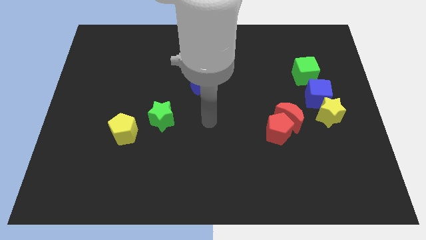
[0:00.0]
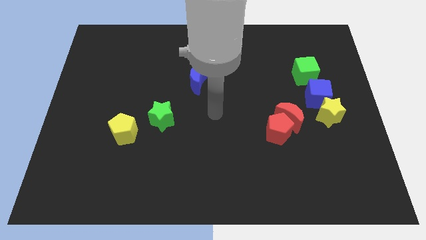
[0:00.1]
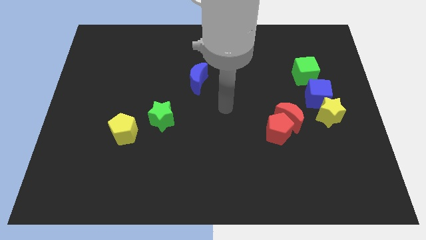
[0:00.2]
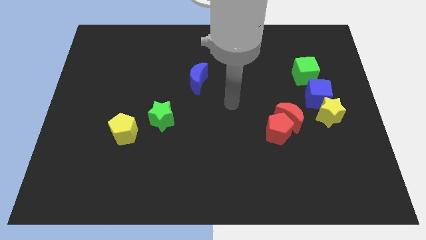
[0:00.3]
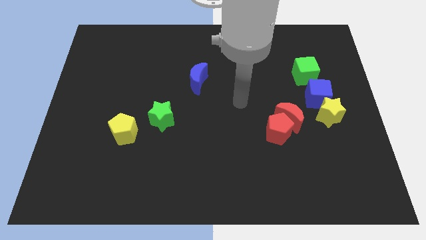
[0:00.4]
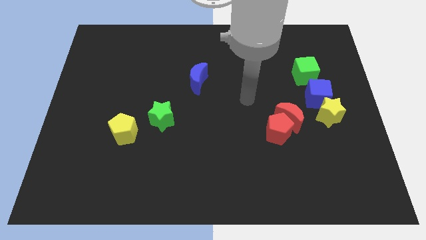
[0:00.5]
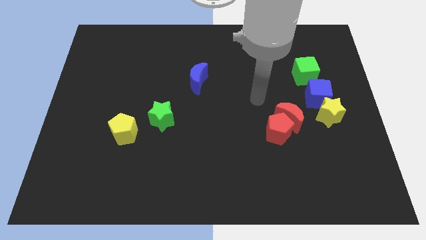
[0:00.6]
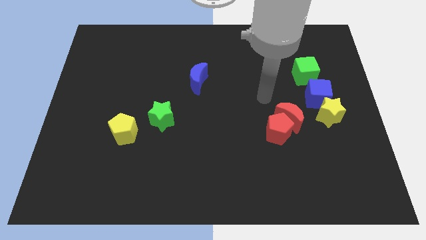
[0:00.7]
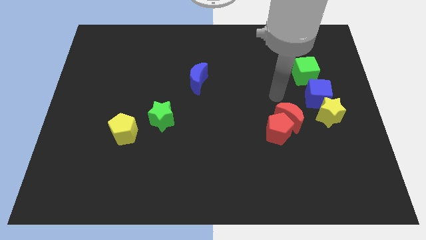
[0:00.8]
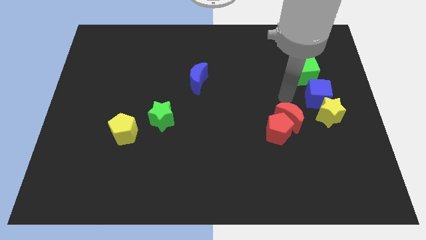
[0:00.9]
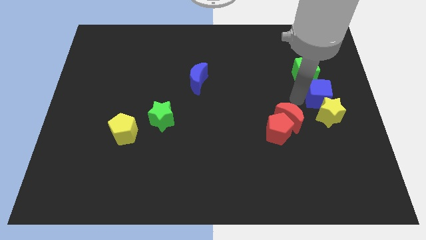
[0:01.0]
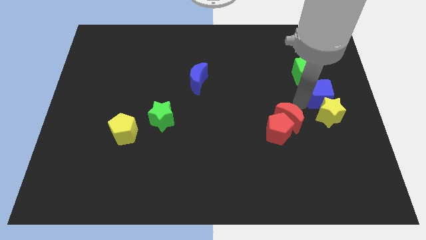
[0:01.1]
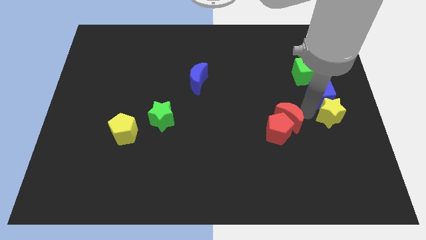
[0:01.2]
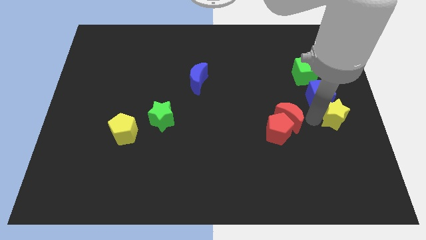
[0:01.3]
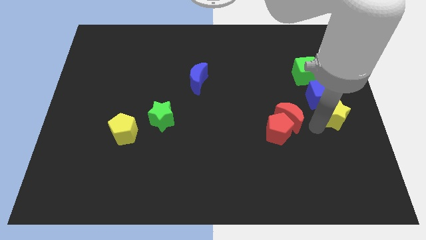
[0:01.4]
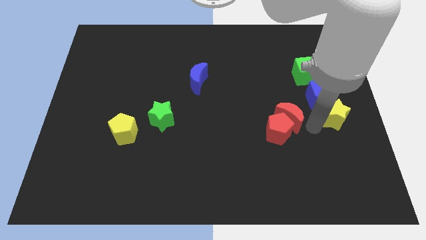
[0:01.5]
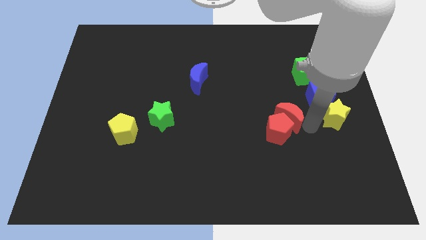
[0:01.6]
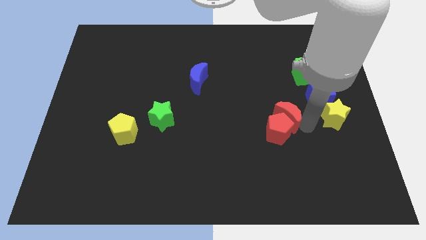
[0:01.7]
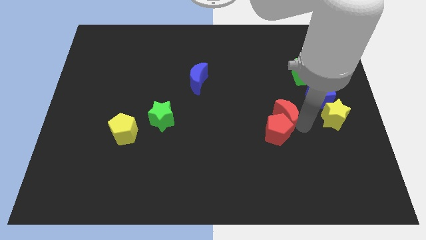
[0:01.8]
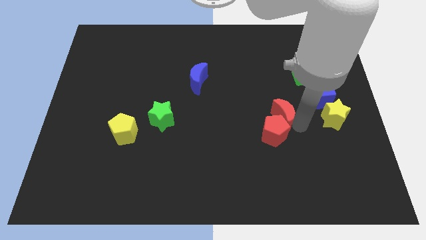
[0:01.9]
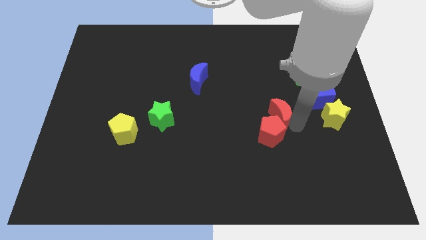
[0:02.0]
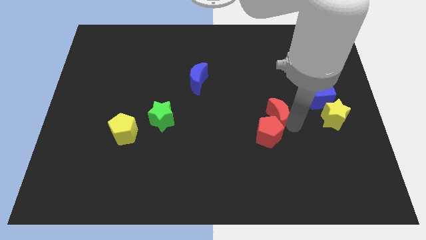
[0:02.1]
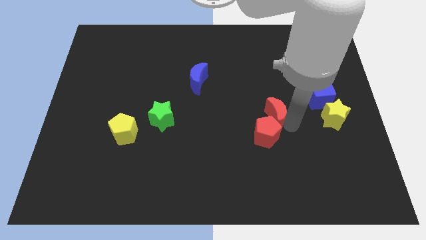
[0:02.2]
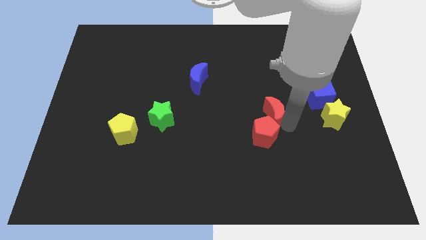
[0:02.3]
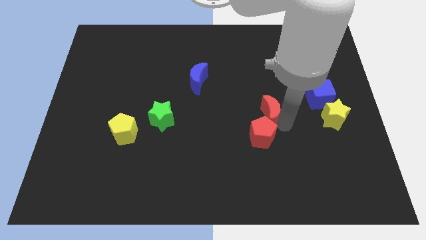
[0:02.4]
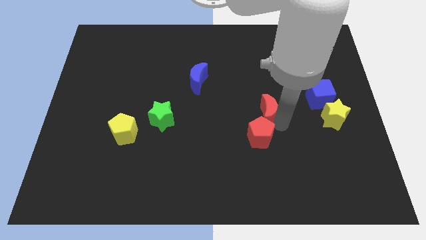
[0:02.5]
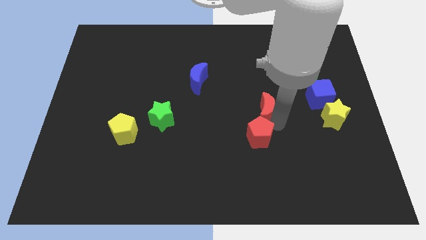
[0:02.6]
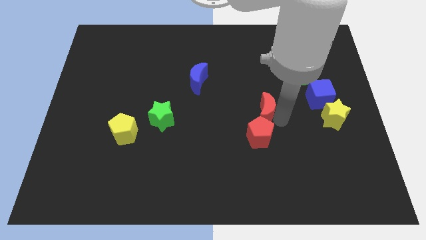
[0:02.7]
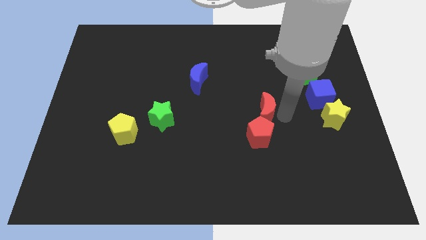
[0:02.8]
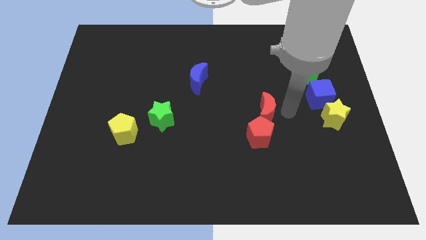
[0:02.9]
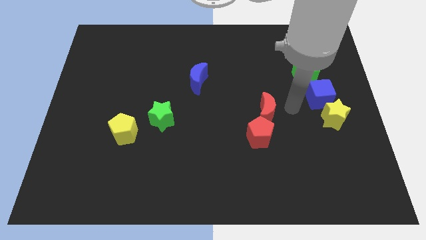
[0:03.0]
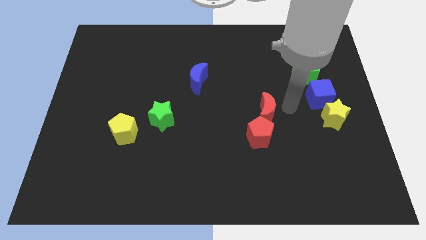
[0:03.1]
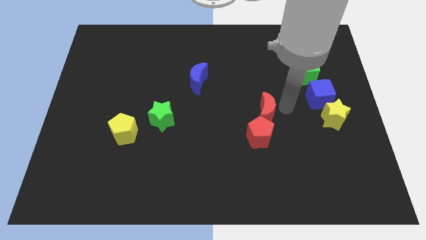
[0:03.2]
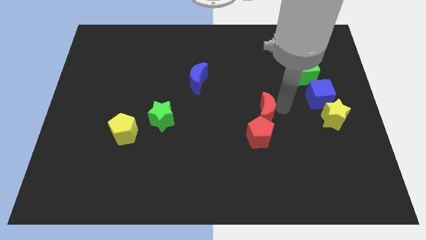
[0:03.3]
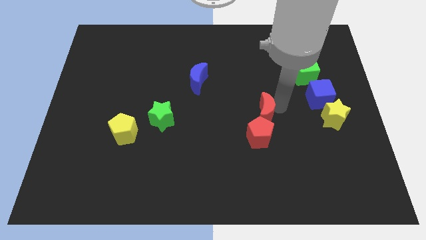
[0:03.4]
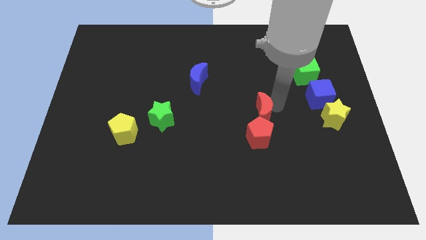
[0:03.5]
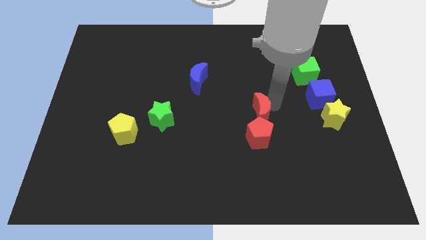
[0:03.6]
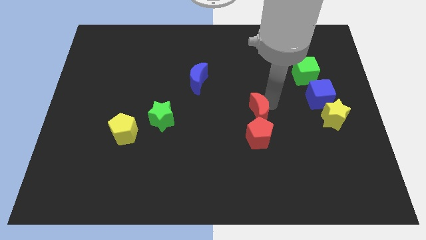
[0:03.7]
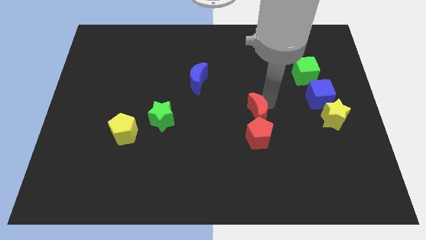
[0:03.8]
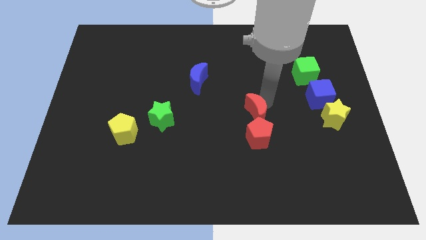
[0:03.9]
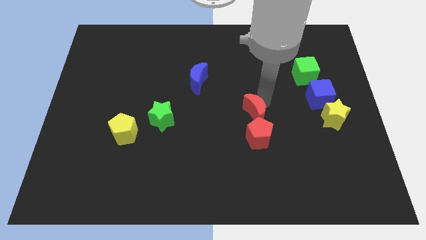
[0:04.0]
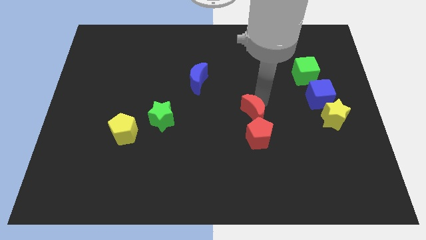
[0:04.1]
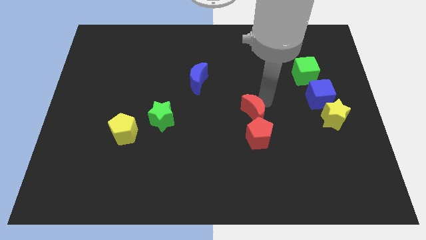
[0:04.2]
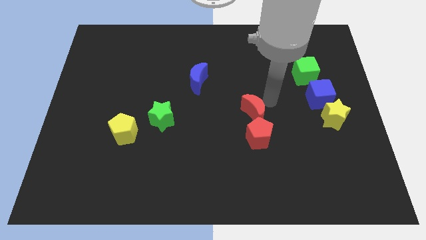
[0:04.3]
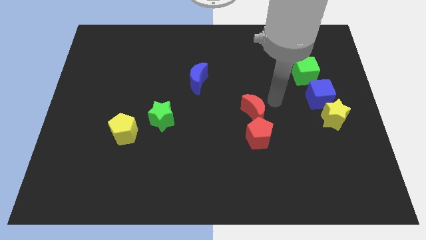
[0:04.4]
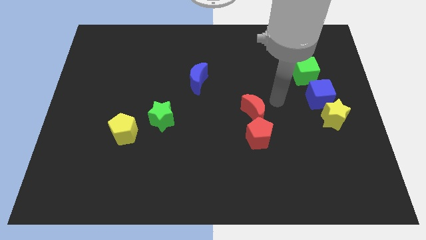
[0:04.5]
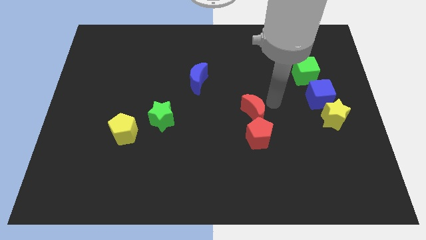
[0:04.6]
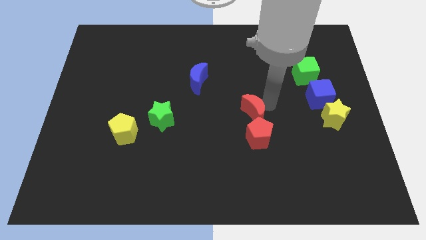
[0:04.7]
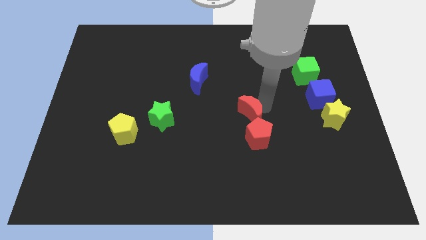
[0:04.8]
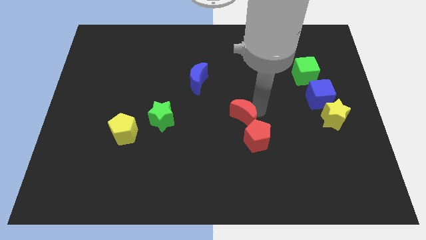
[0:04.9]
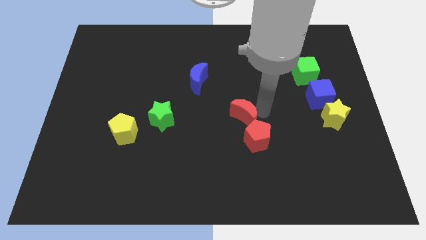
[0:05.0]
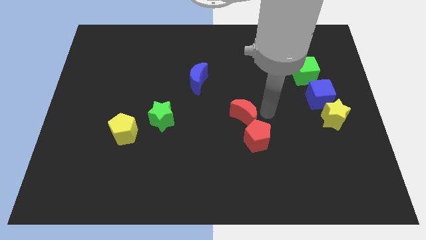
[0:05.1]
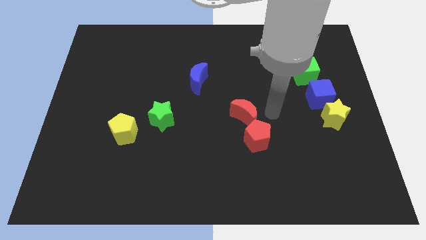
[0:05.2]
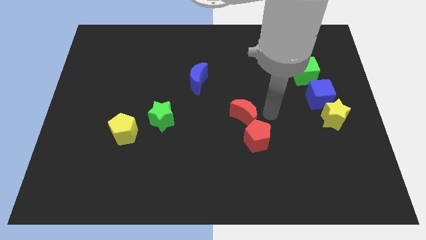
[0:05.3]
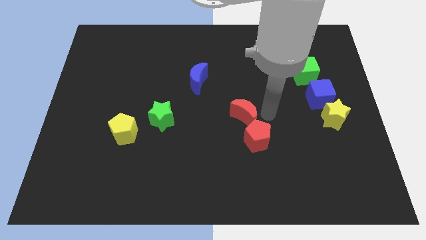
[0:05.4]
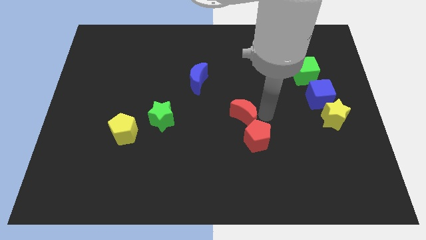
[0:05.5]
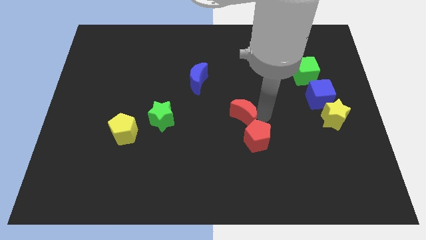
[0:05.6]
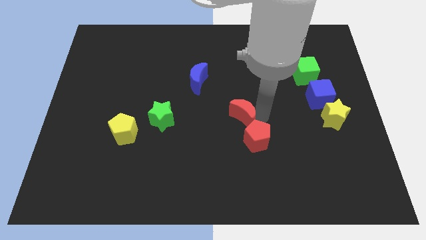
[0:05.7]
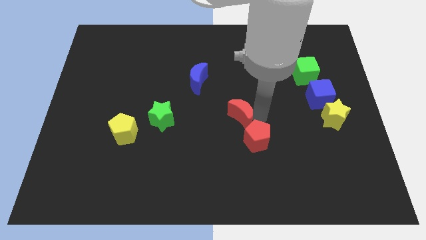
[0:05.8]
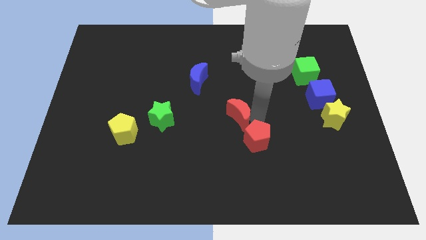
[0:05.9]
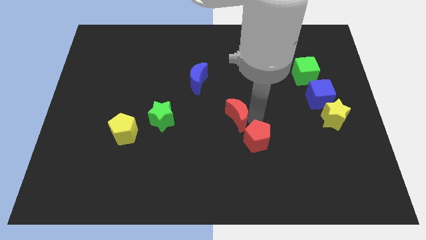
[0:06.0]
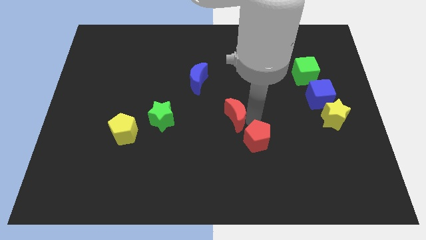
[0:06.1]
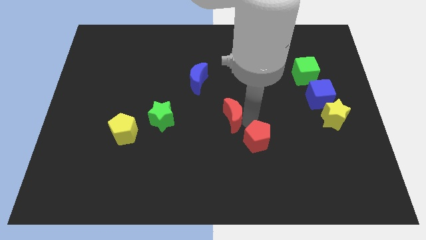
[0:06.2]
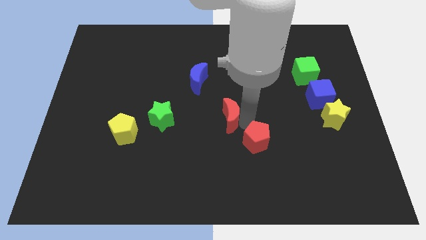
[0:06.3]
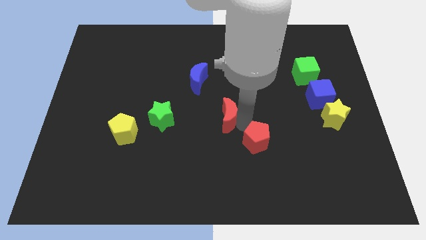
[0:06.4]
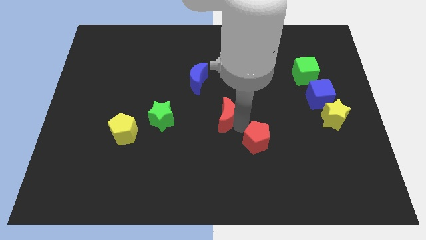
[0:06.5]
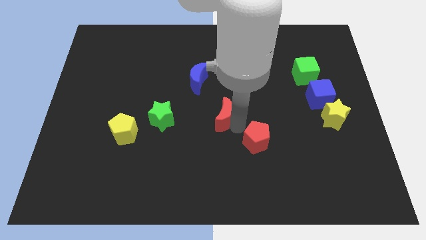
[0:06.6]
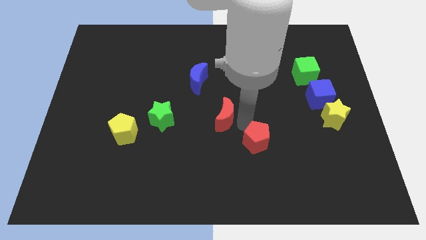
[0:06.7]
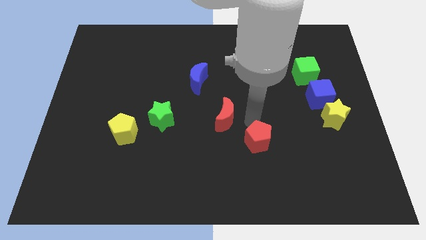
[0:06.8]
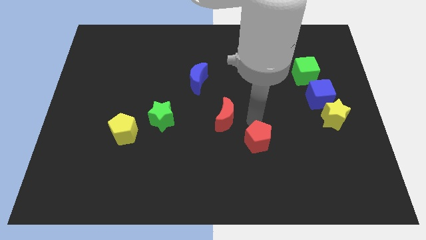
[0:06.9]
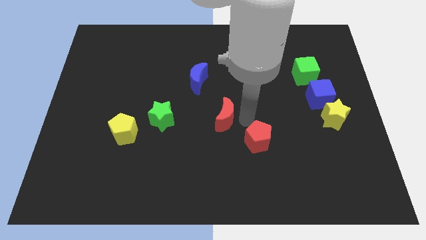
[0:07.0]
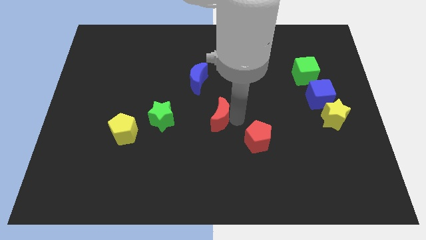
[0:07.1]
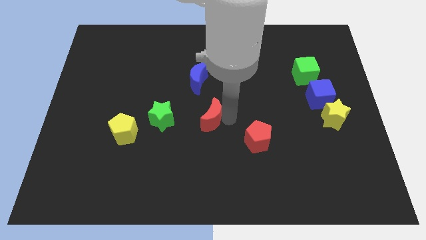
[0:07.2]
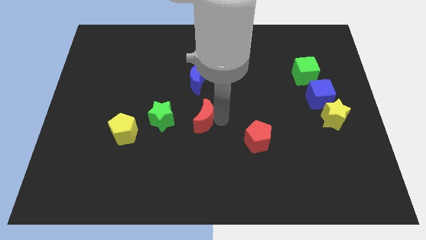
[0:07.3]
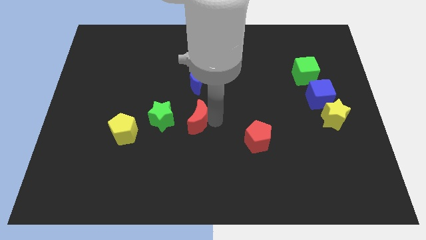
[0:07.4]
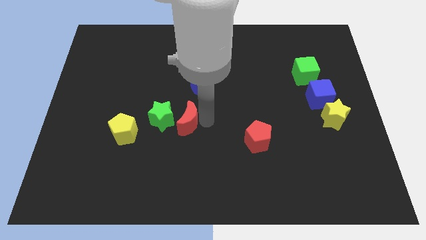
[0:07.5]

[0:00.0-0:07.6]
push the red moon next to the green star
